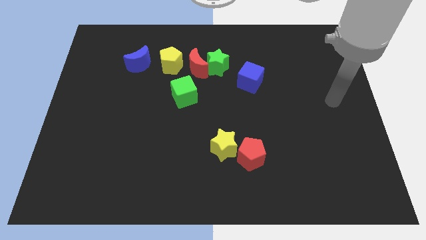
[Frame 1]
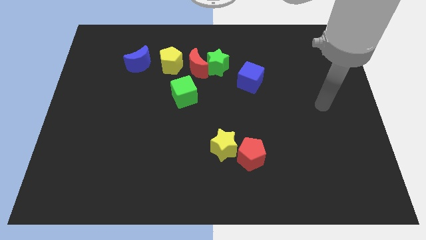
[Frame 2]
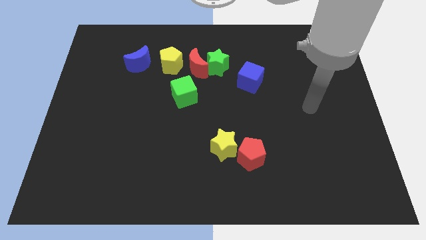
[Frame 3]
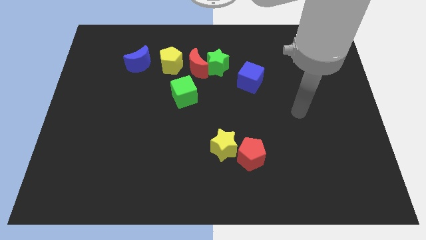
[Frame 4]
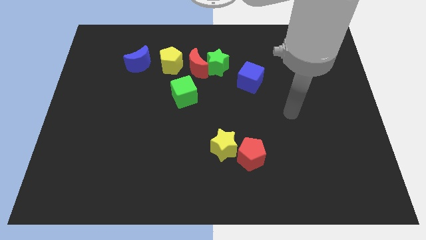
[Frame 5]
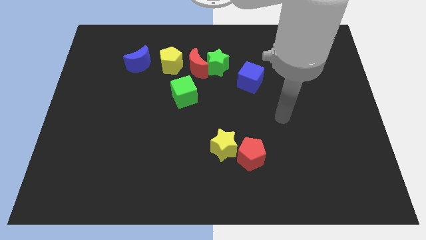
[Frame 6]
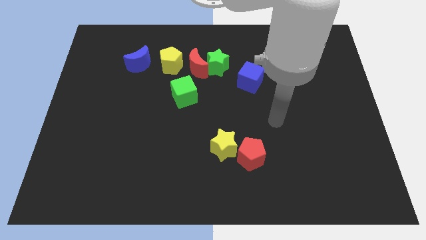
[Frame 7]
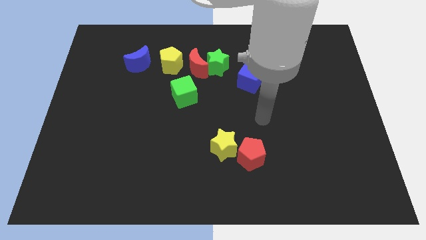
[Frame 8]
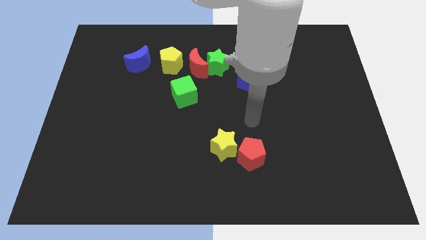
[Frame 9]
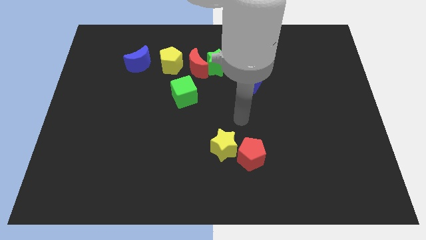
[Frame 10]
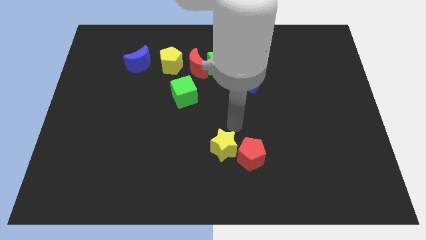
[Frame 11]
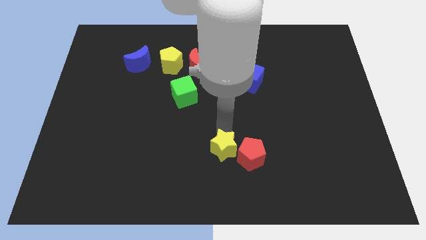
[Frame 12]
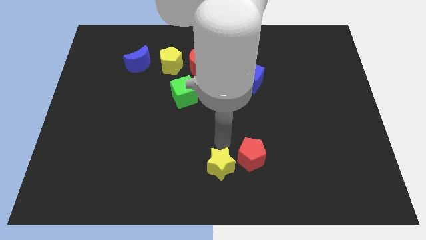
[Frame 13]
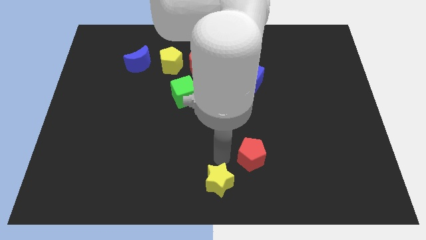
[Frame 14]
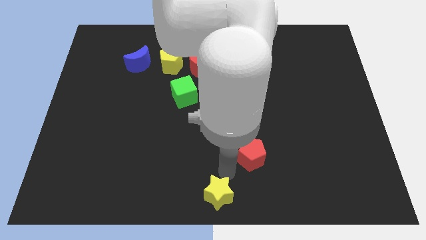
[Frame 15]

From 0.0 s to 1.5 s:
move the red pentagon away from the yellow star

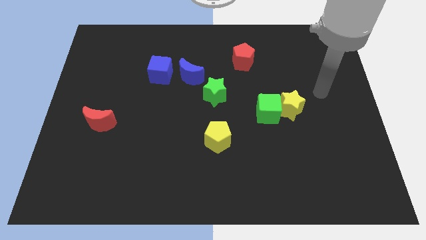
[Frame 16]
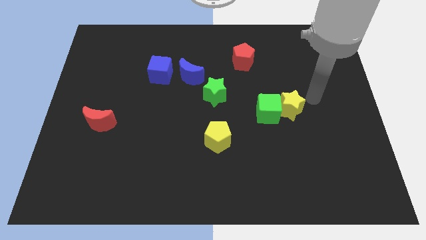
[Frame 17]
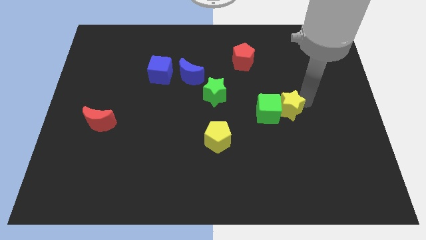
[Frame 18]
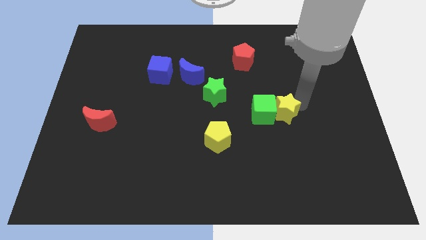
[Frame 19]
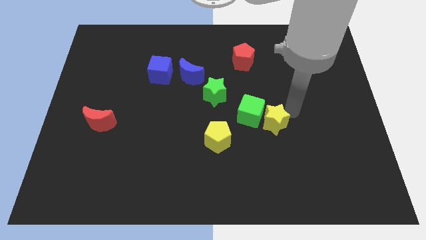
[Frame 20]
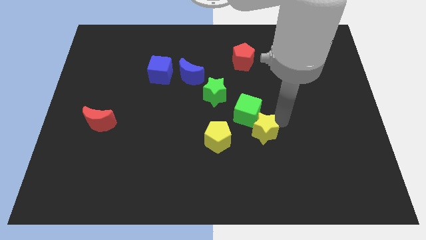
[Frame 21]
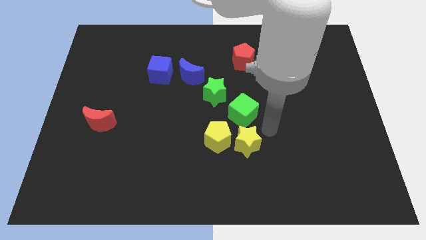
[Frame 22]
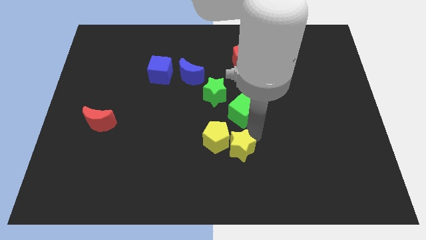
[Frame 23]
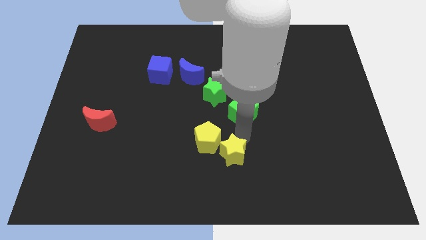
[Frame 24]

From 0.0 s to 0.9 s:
separate the green cube from the yellow star

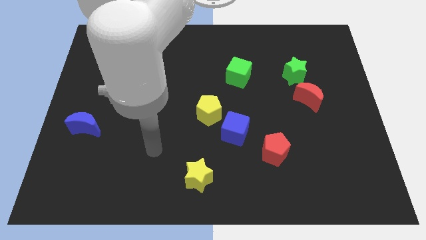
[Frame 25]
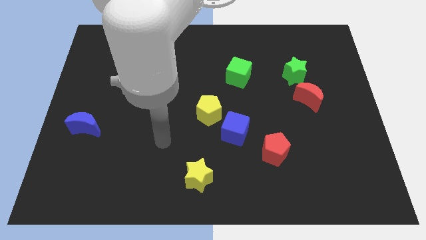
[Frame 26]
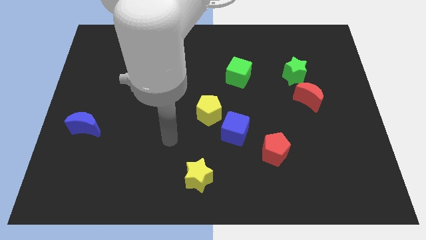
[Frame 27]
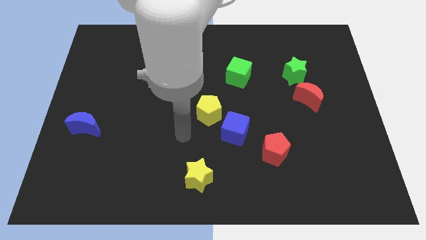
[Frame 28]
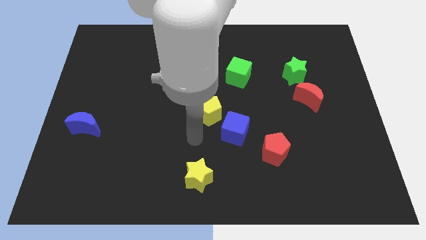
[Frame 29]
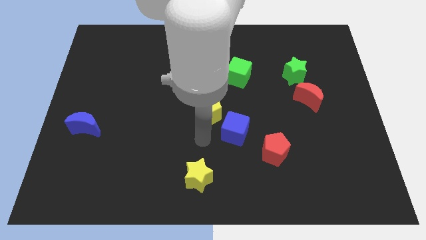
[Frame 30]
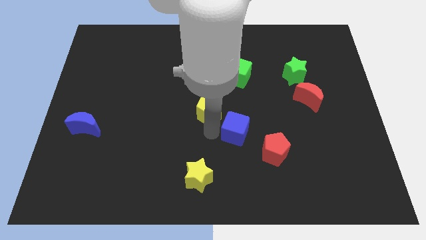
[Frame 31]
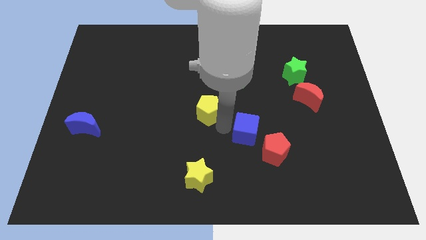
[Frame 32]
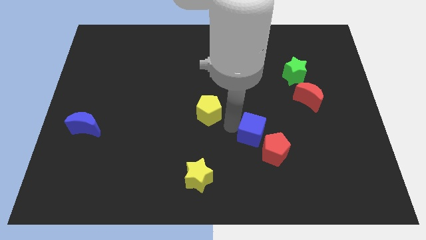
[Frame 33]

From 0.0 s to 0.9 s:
separate the yellow pentagon from the blue cube

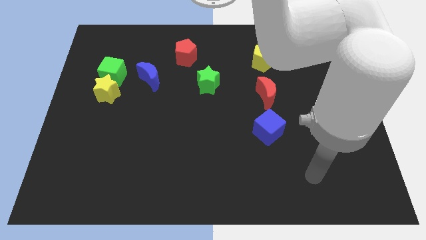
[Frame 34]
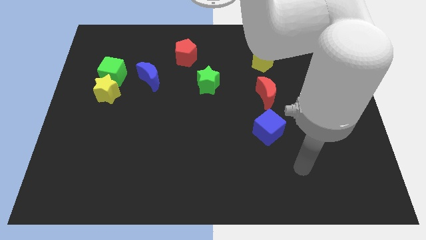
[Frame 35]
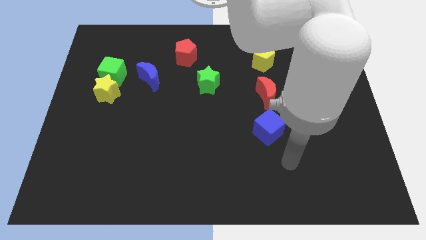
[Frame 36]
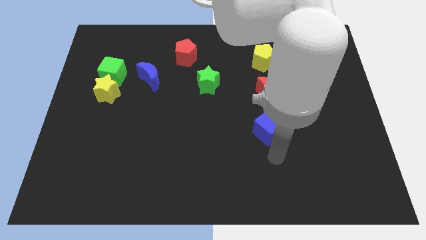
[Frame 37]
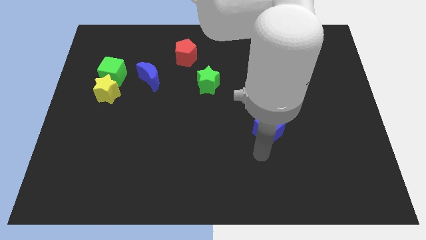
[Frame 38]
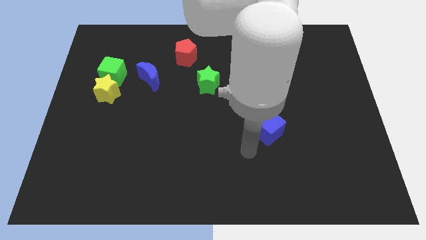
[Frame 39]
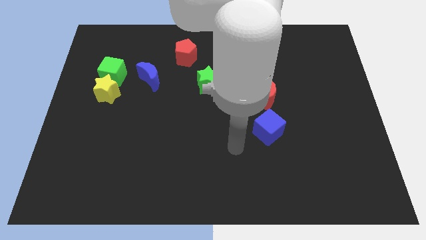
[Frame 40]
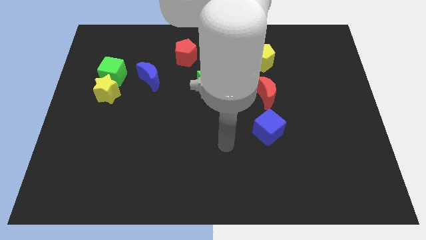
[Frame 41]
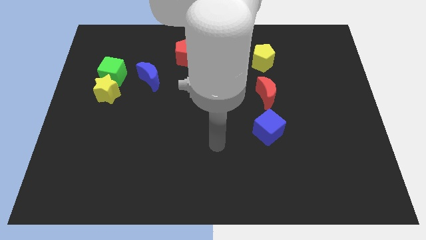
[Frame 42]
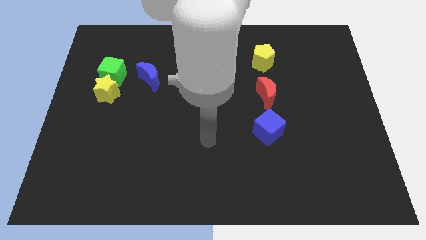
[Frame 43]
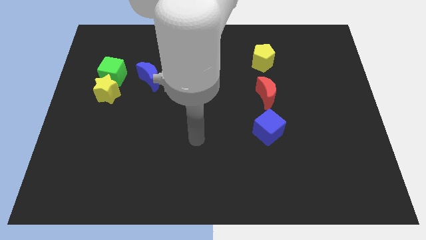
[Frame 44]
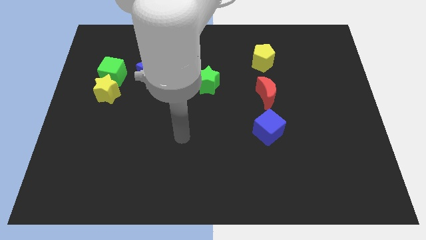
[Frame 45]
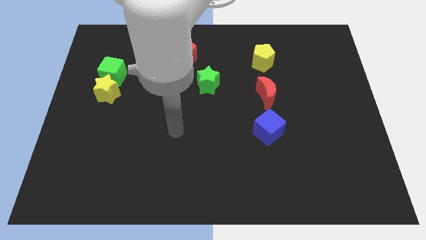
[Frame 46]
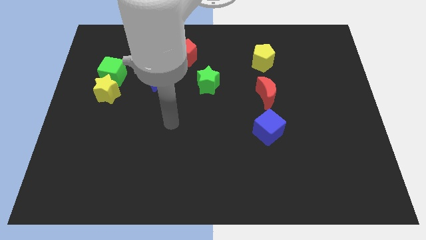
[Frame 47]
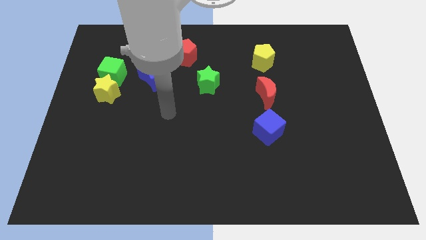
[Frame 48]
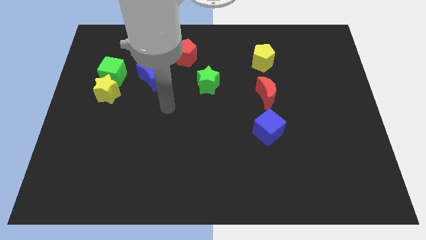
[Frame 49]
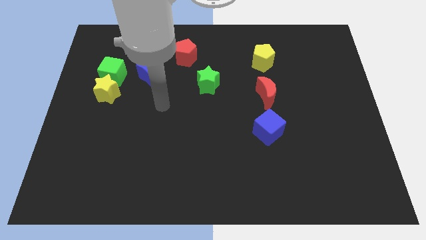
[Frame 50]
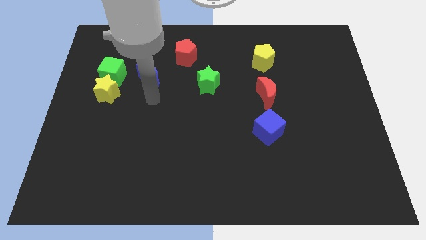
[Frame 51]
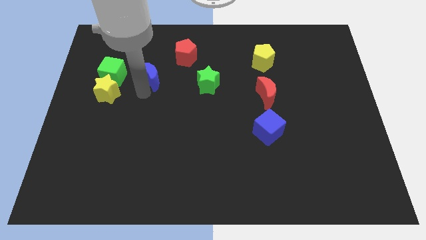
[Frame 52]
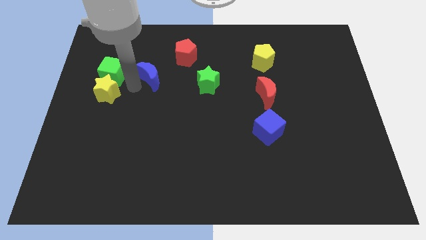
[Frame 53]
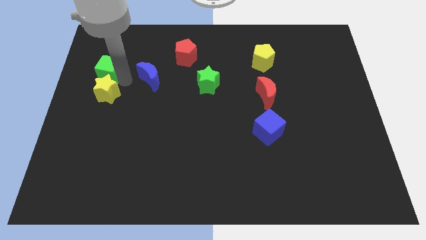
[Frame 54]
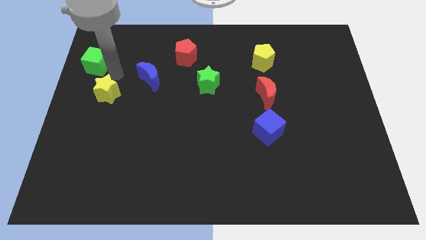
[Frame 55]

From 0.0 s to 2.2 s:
move the yellow star away from the green cube

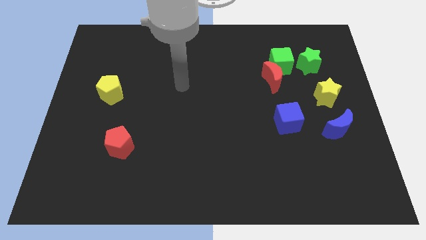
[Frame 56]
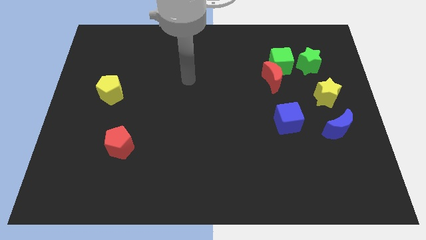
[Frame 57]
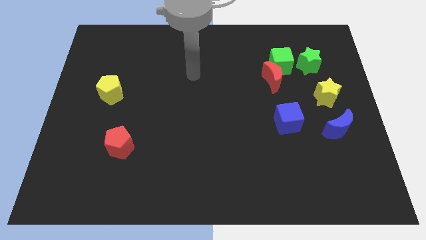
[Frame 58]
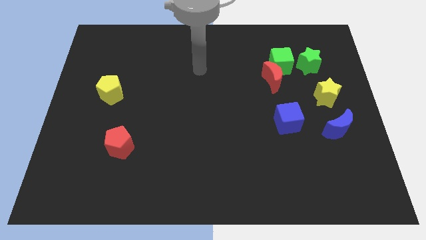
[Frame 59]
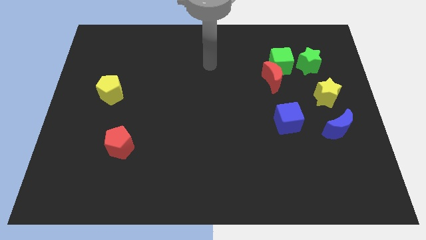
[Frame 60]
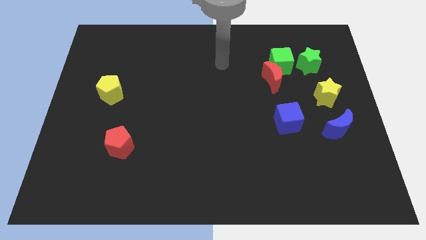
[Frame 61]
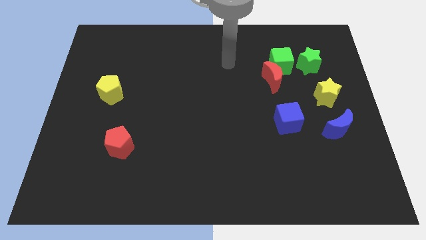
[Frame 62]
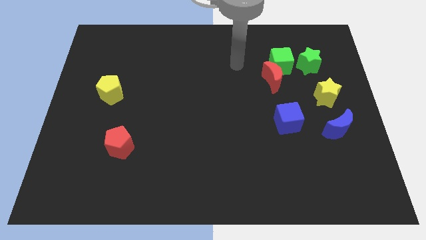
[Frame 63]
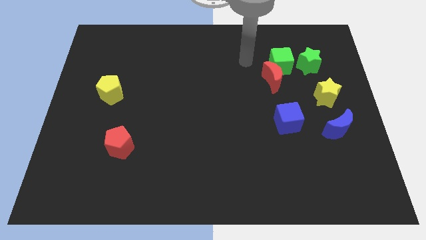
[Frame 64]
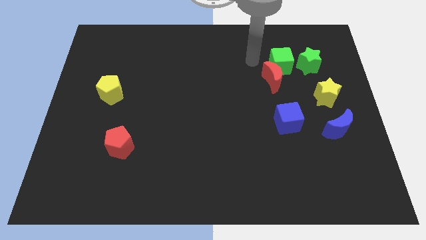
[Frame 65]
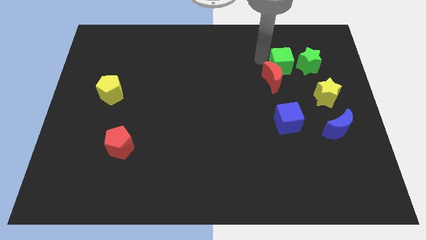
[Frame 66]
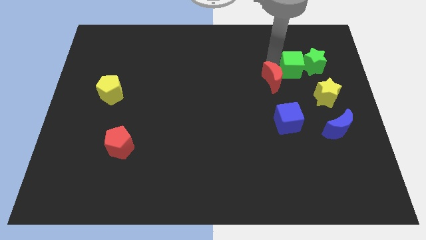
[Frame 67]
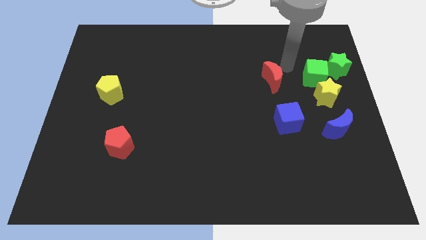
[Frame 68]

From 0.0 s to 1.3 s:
separate the red moon from the green cube

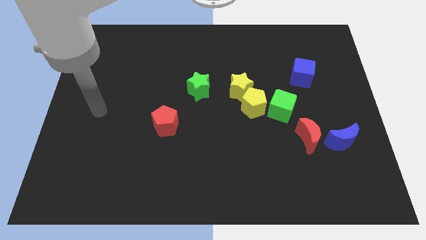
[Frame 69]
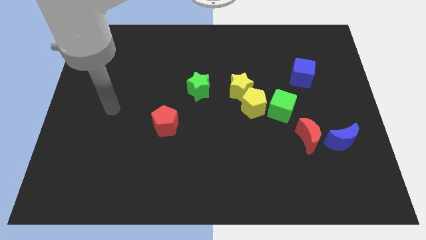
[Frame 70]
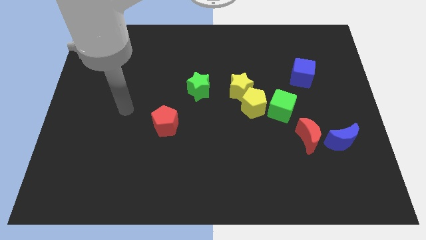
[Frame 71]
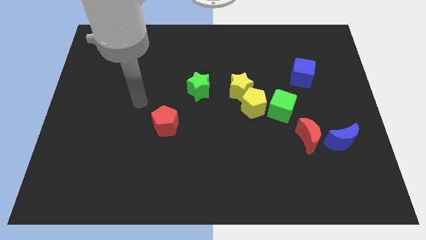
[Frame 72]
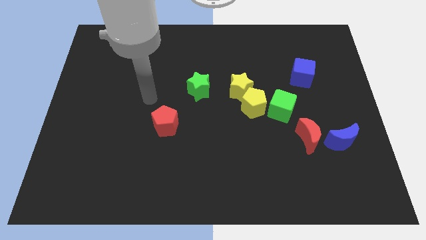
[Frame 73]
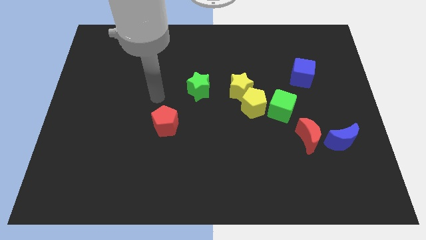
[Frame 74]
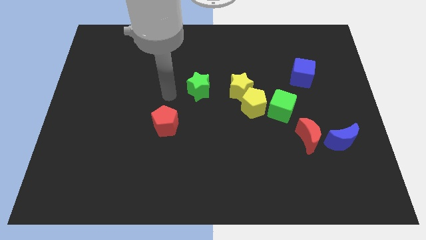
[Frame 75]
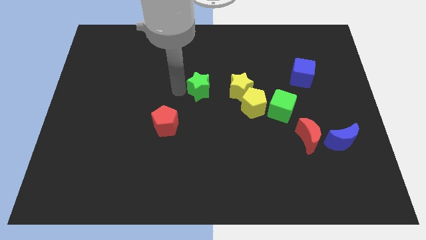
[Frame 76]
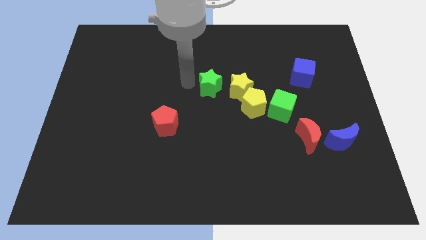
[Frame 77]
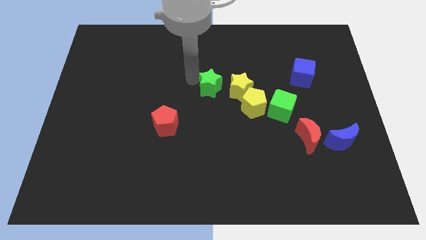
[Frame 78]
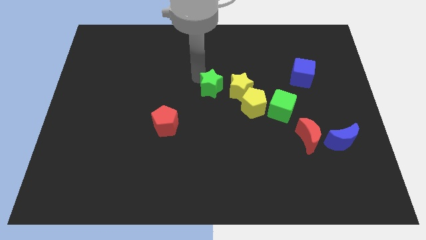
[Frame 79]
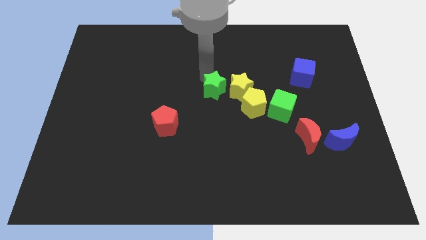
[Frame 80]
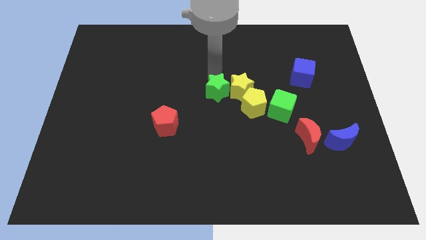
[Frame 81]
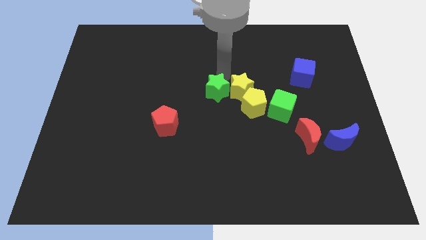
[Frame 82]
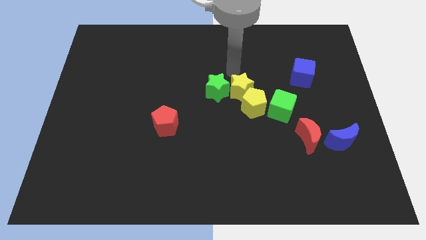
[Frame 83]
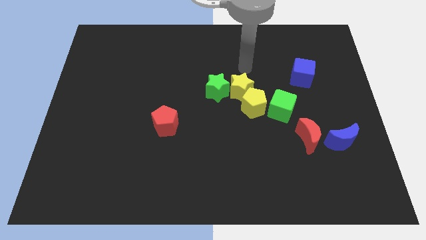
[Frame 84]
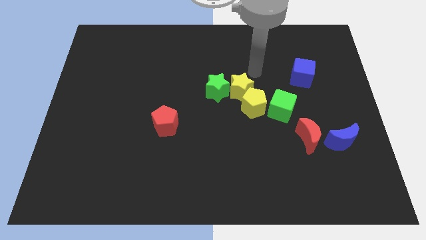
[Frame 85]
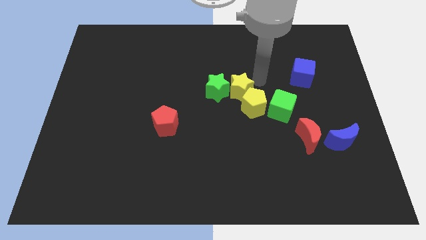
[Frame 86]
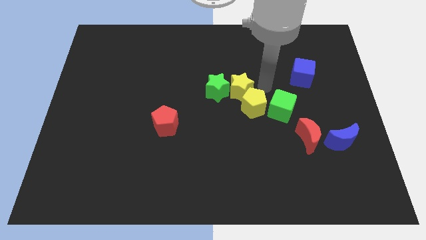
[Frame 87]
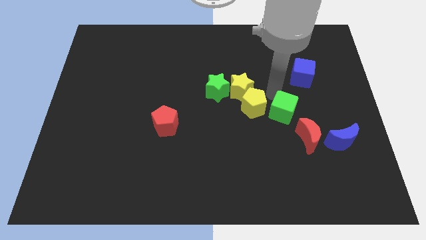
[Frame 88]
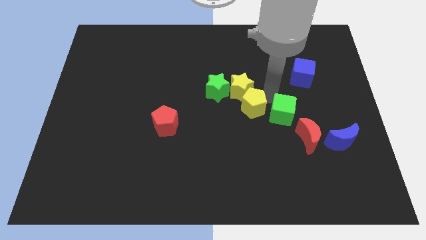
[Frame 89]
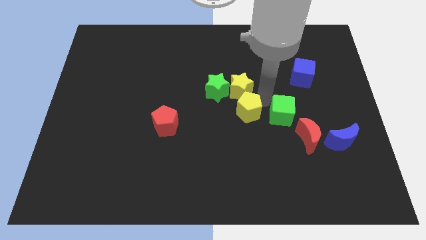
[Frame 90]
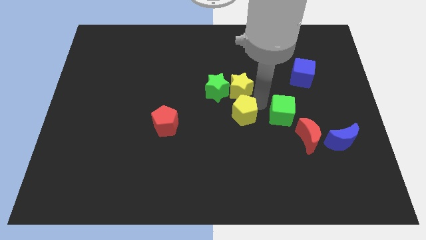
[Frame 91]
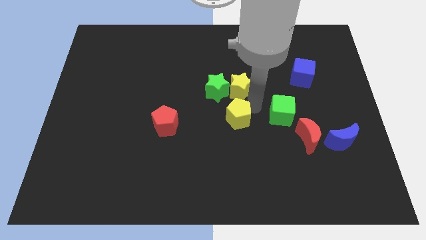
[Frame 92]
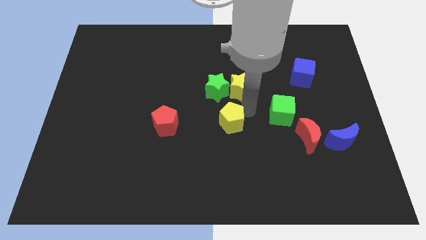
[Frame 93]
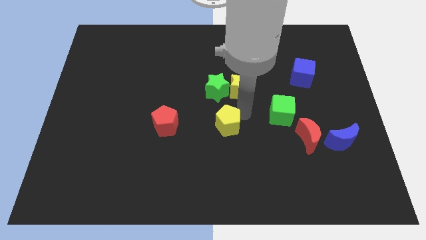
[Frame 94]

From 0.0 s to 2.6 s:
pull the yellow pentagon apart from the yellow star and green cube
